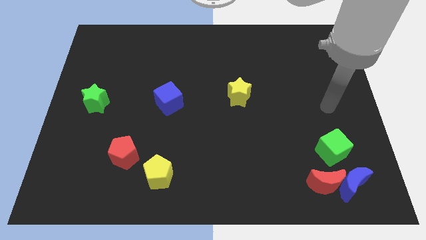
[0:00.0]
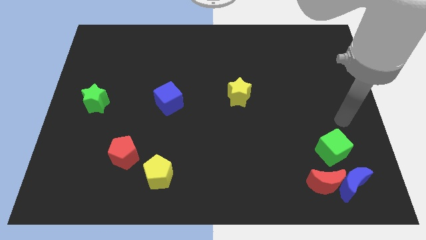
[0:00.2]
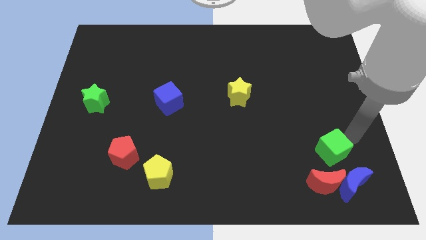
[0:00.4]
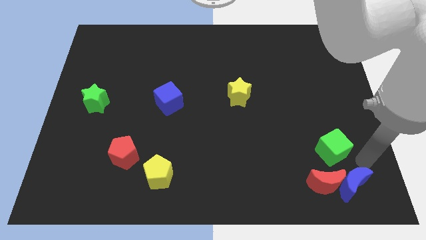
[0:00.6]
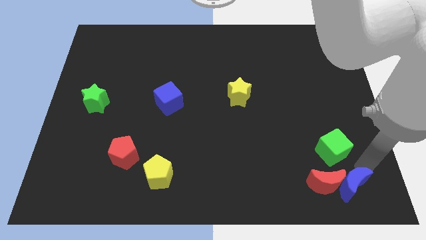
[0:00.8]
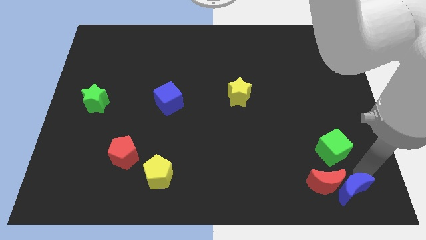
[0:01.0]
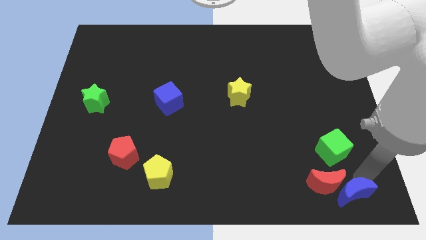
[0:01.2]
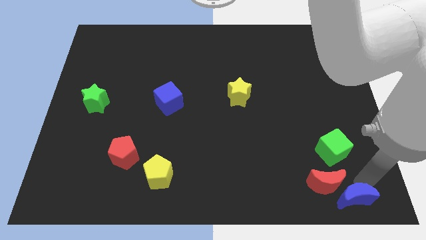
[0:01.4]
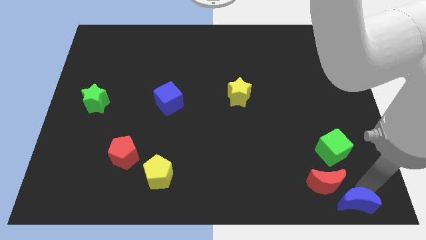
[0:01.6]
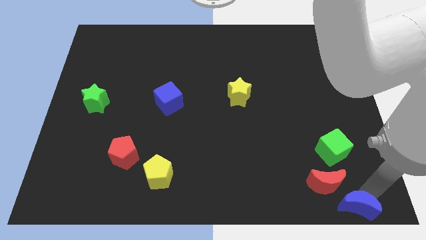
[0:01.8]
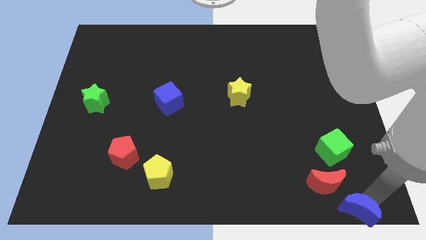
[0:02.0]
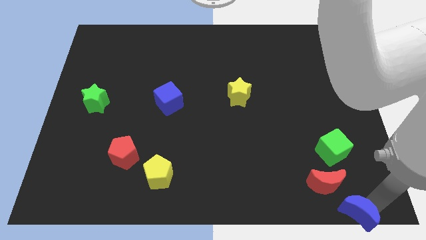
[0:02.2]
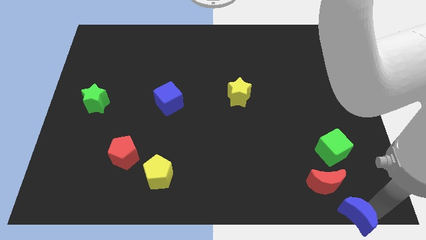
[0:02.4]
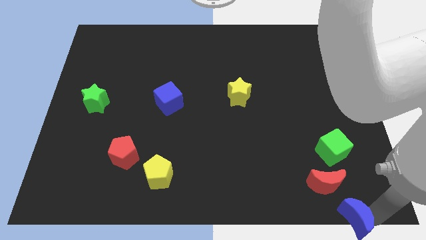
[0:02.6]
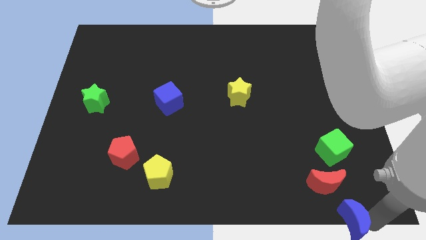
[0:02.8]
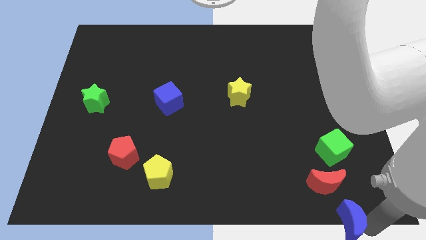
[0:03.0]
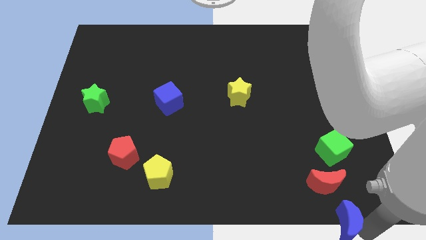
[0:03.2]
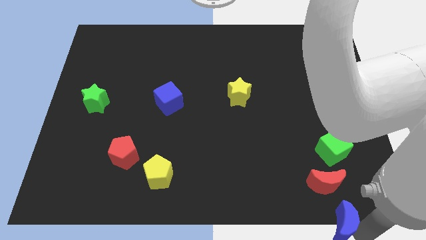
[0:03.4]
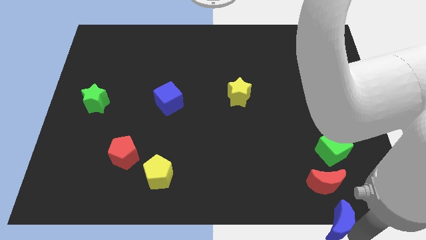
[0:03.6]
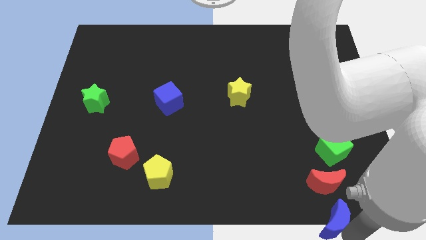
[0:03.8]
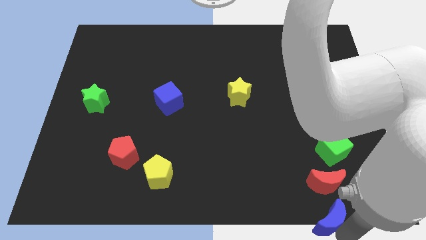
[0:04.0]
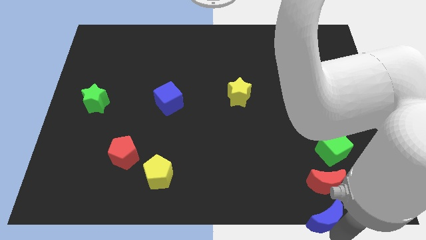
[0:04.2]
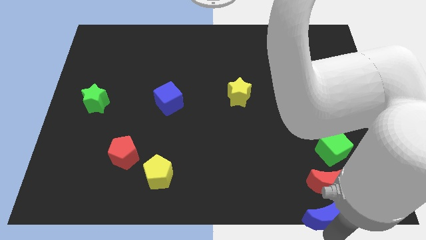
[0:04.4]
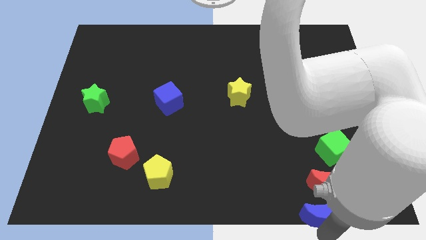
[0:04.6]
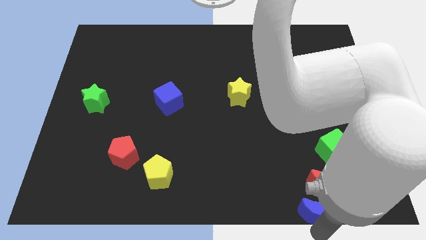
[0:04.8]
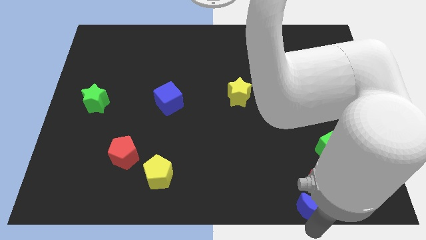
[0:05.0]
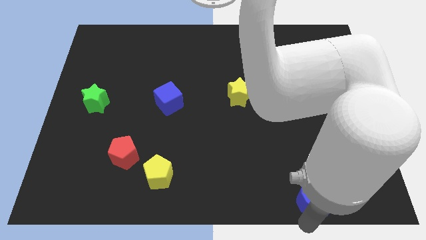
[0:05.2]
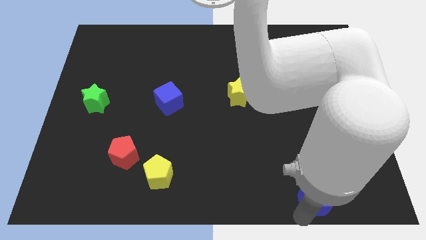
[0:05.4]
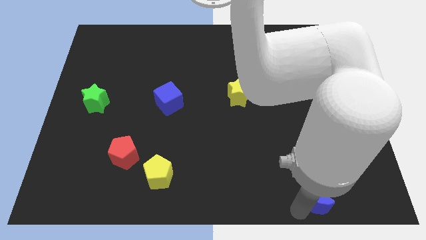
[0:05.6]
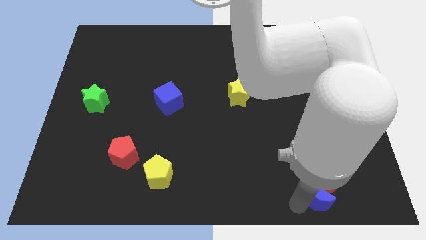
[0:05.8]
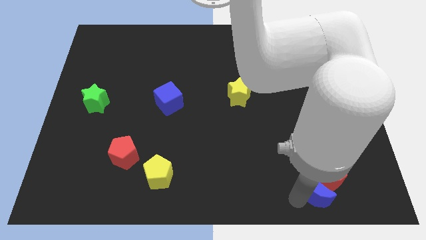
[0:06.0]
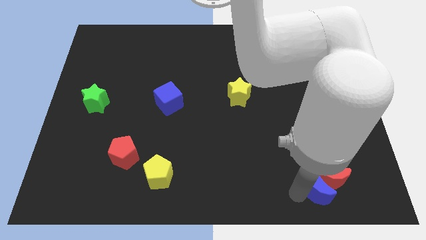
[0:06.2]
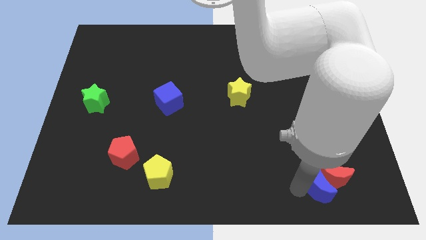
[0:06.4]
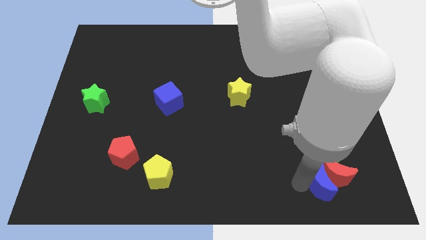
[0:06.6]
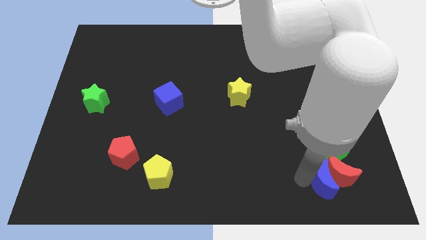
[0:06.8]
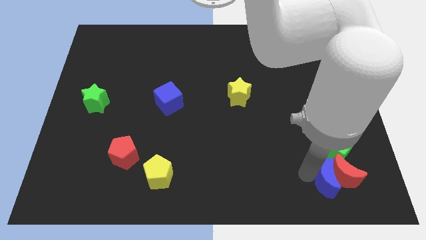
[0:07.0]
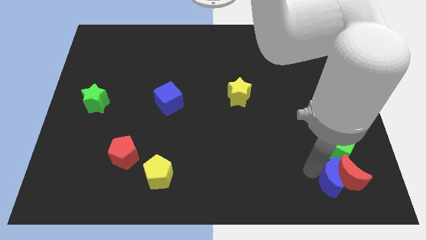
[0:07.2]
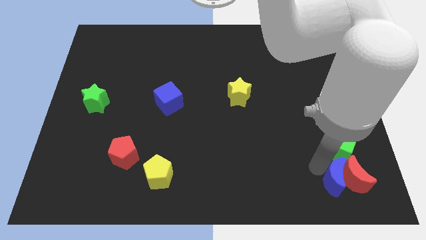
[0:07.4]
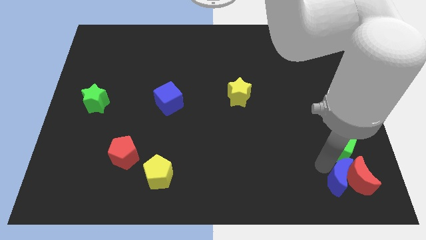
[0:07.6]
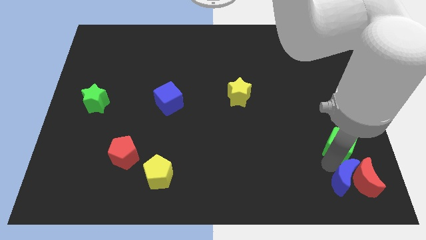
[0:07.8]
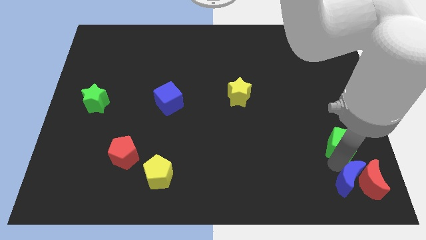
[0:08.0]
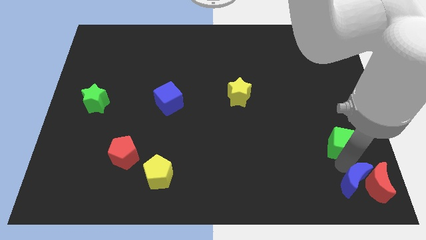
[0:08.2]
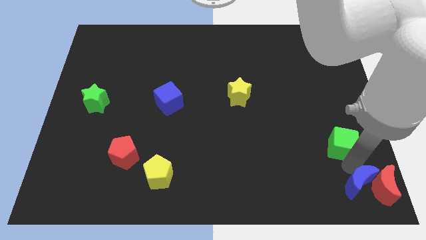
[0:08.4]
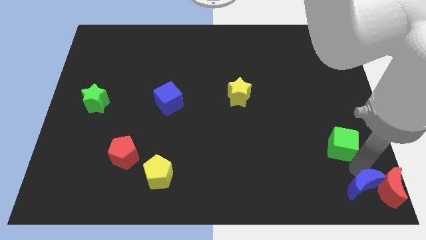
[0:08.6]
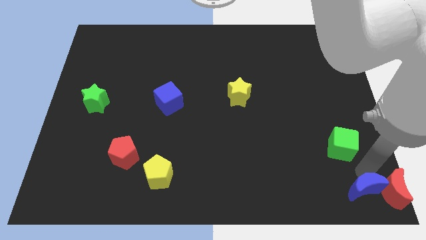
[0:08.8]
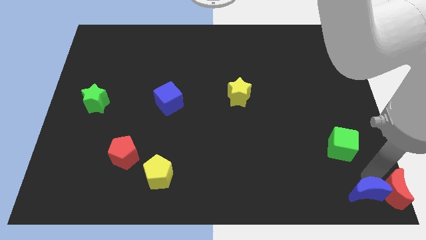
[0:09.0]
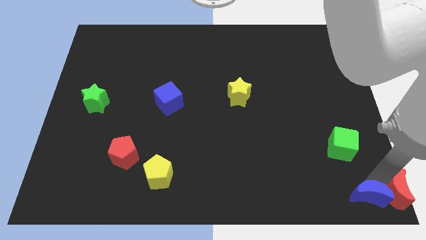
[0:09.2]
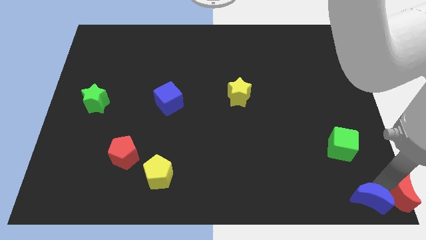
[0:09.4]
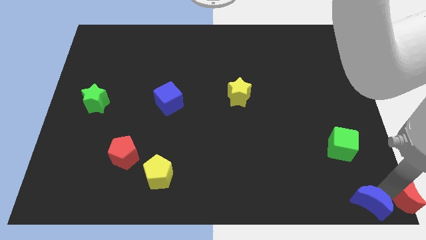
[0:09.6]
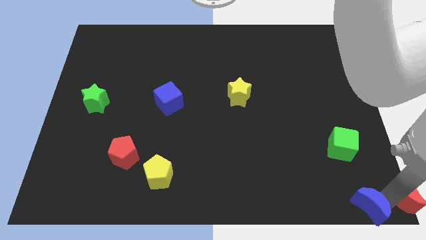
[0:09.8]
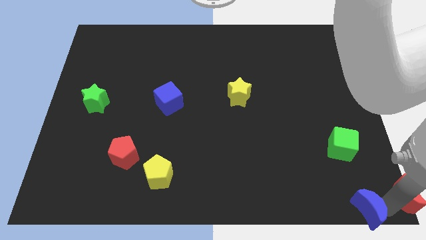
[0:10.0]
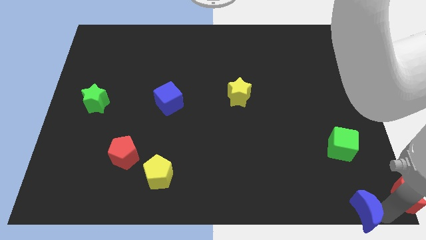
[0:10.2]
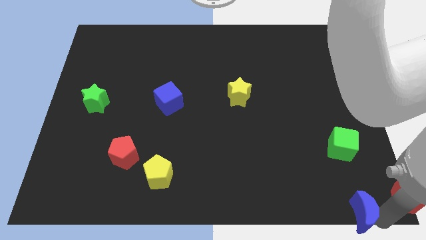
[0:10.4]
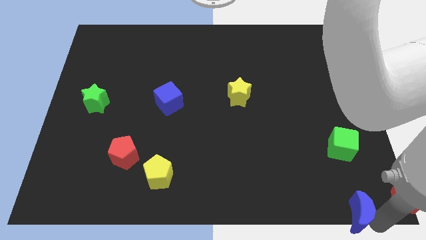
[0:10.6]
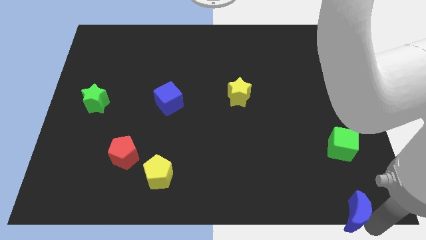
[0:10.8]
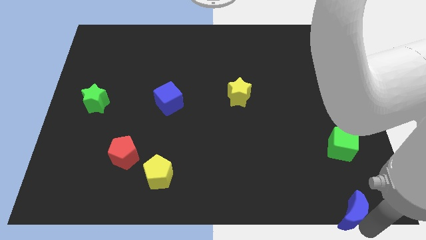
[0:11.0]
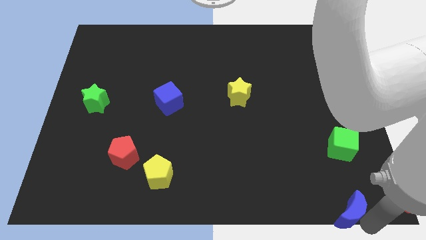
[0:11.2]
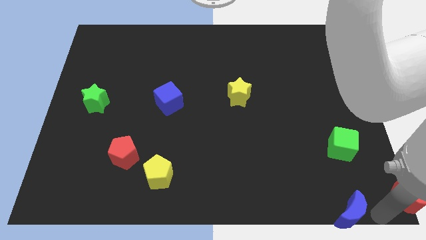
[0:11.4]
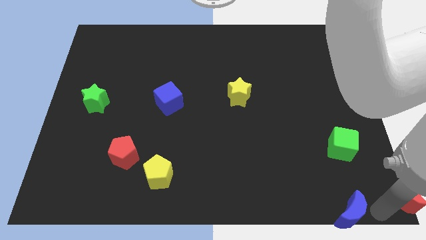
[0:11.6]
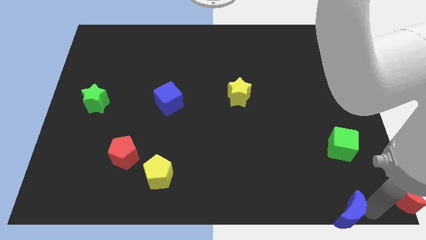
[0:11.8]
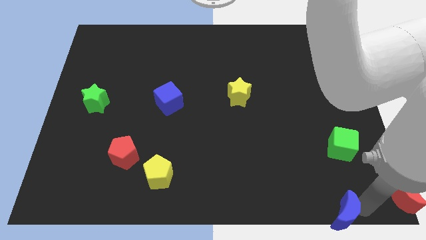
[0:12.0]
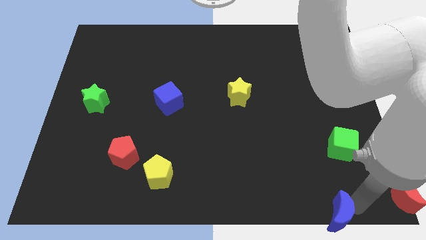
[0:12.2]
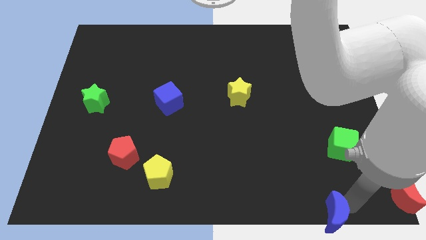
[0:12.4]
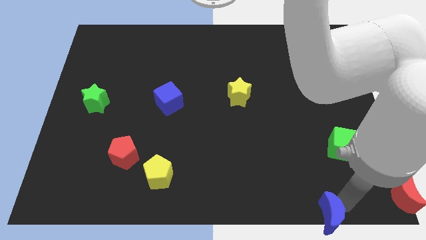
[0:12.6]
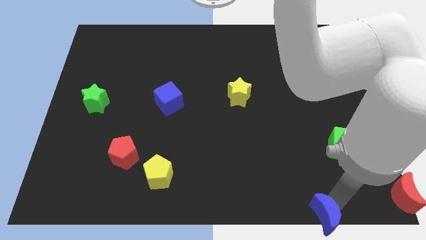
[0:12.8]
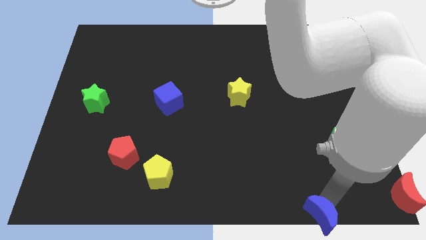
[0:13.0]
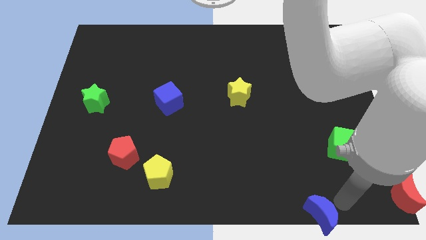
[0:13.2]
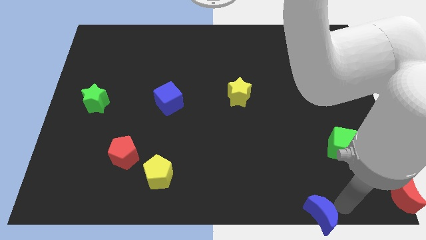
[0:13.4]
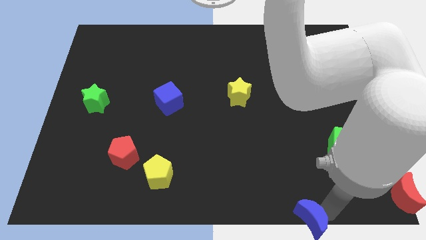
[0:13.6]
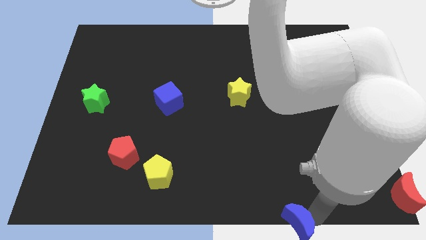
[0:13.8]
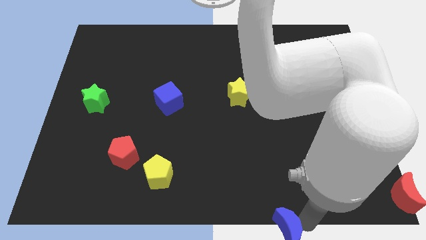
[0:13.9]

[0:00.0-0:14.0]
put the blue moon to the bottom side
